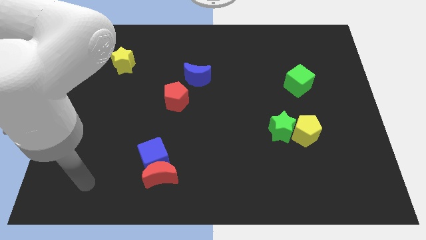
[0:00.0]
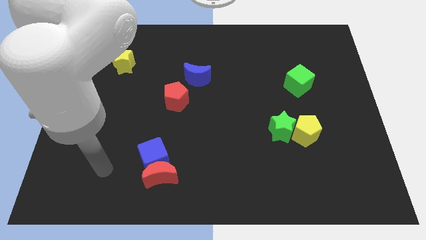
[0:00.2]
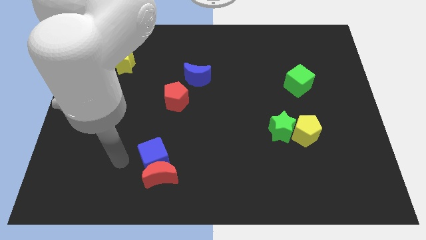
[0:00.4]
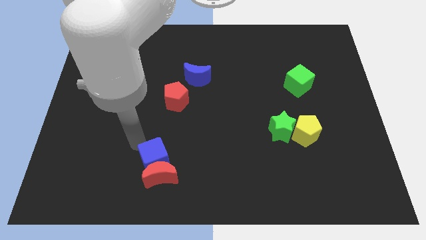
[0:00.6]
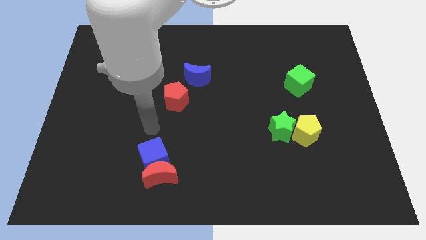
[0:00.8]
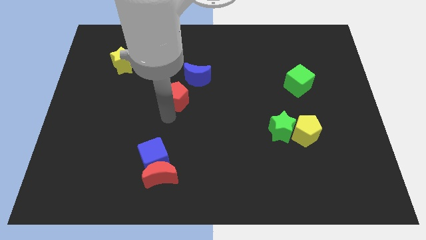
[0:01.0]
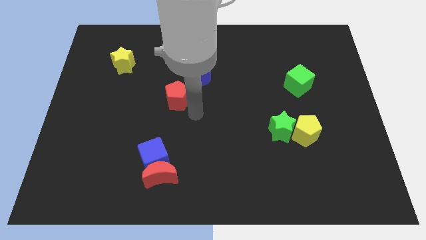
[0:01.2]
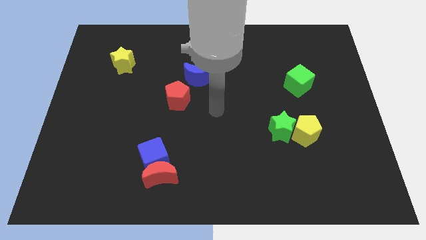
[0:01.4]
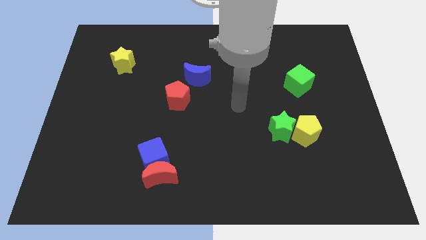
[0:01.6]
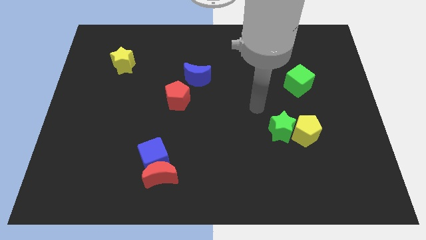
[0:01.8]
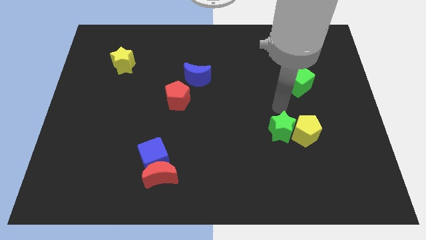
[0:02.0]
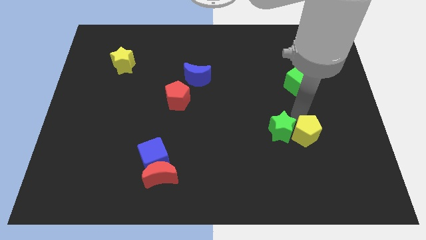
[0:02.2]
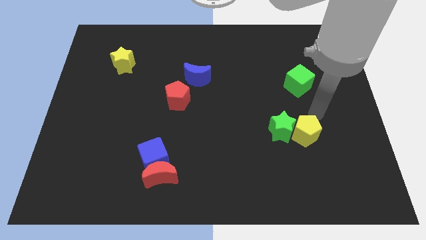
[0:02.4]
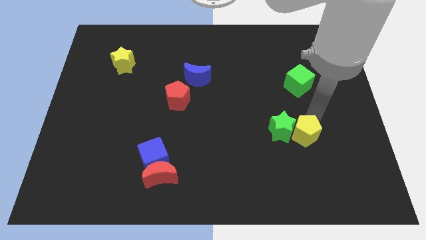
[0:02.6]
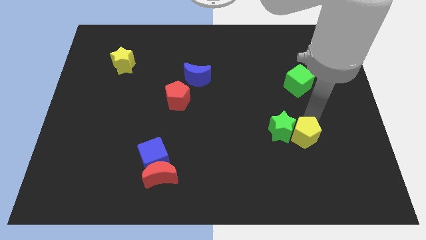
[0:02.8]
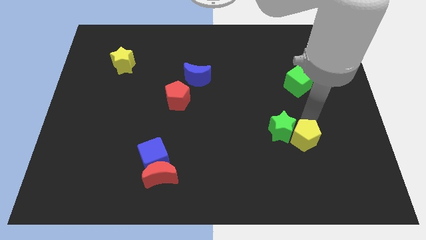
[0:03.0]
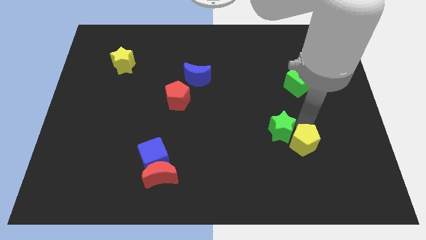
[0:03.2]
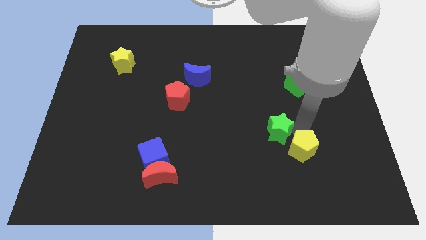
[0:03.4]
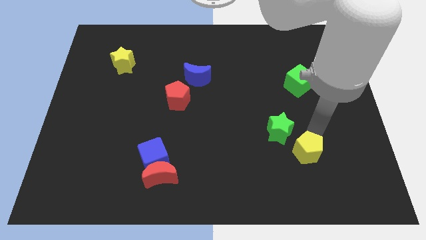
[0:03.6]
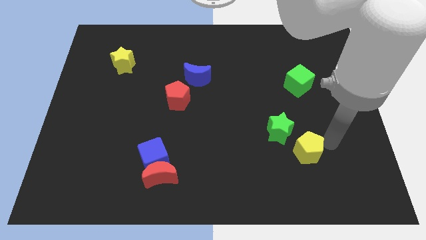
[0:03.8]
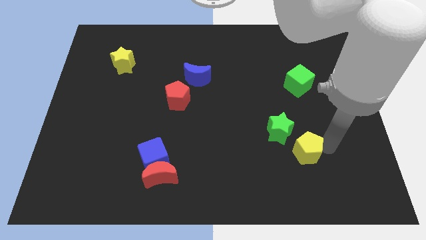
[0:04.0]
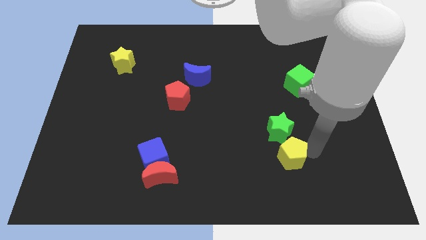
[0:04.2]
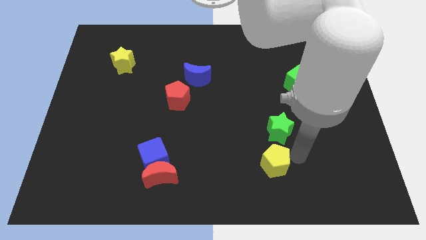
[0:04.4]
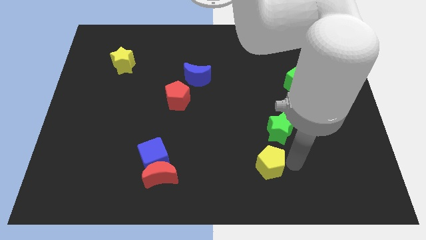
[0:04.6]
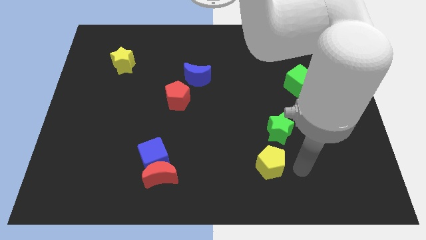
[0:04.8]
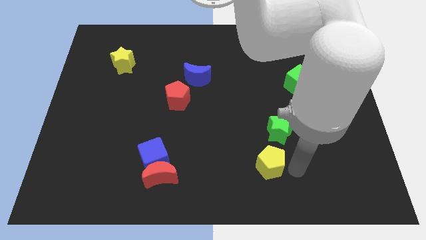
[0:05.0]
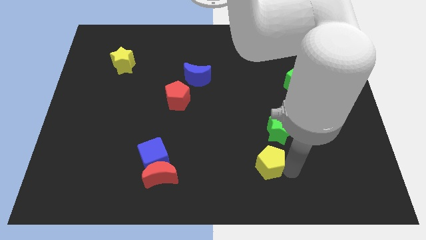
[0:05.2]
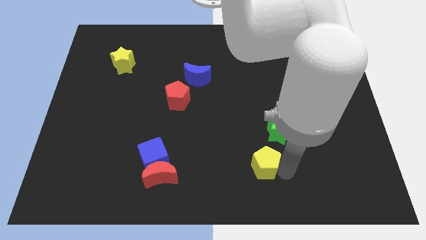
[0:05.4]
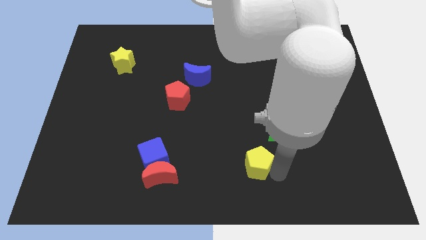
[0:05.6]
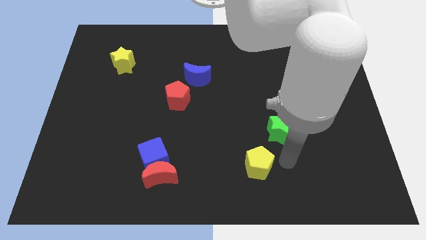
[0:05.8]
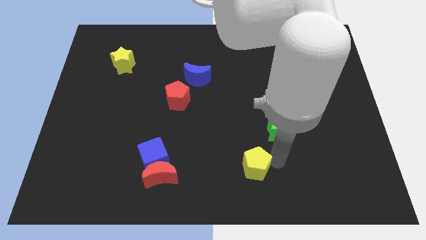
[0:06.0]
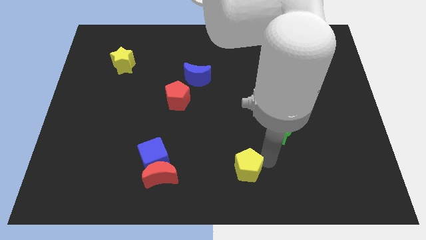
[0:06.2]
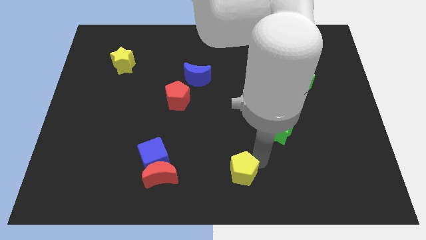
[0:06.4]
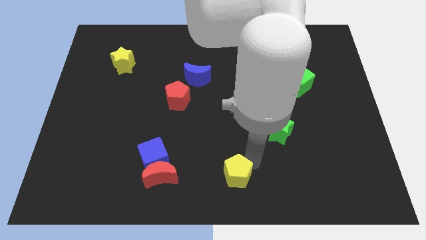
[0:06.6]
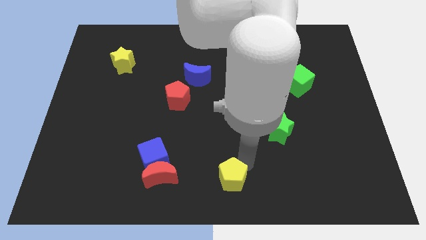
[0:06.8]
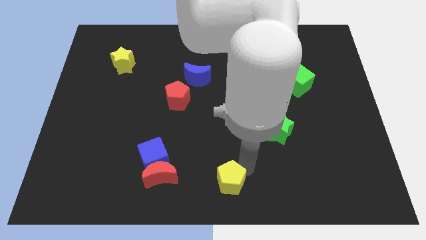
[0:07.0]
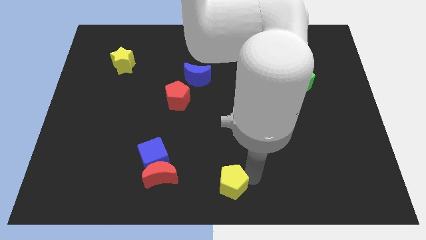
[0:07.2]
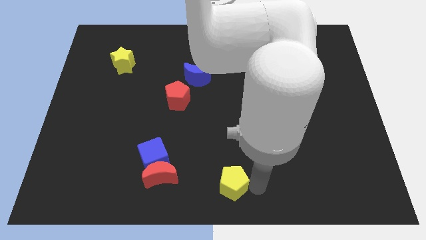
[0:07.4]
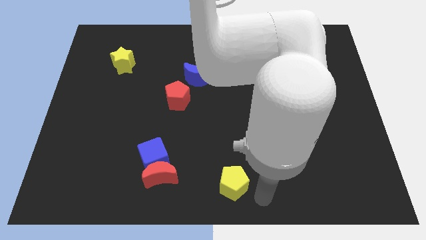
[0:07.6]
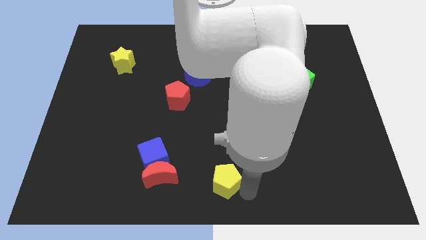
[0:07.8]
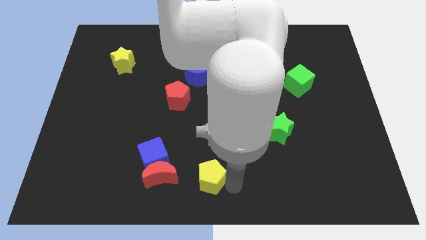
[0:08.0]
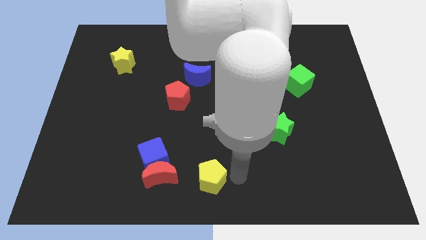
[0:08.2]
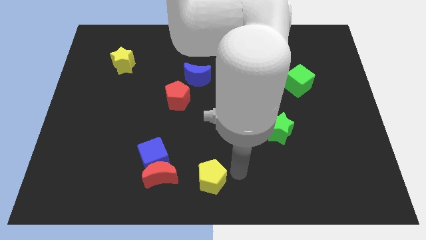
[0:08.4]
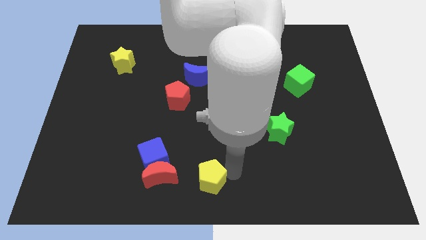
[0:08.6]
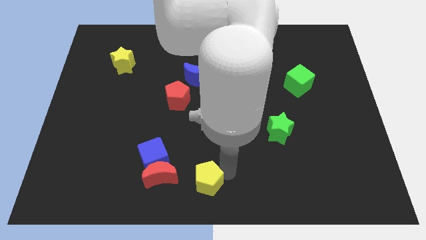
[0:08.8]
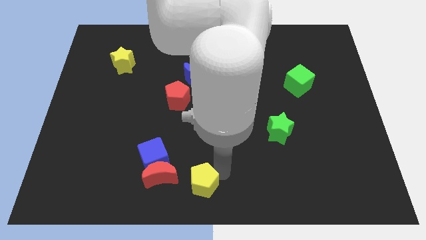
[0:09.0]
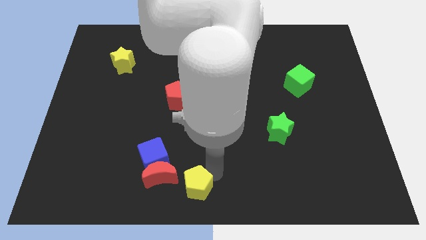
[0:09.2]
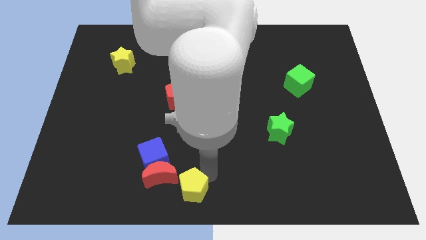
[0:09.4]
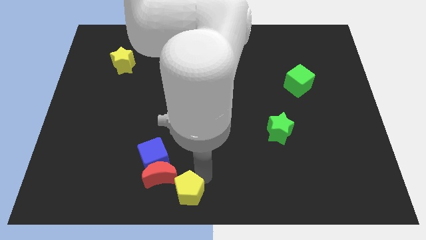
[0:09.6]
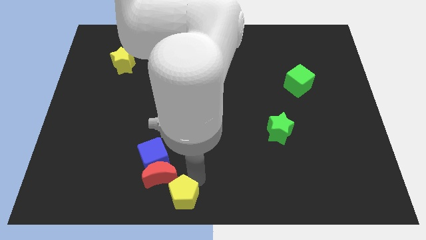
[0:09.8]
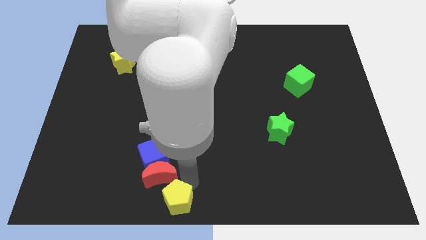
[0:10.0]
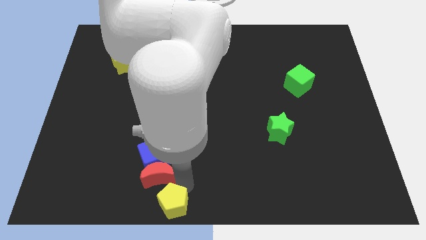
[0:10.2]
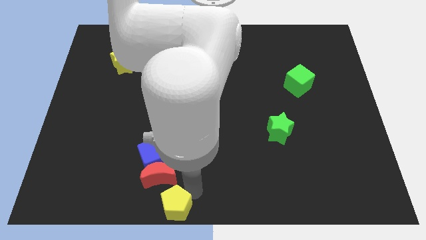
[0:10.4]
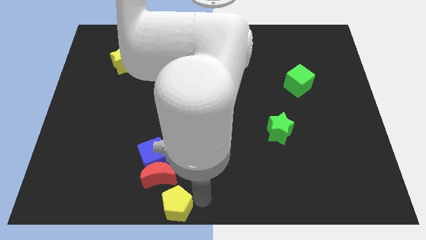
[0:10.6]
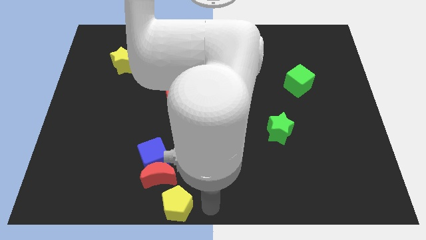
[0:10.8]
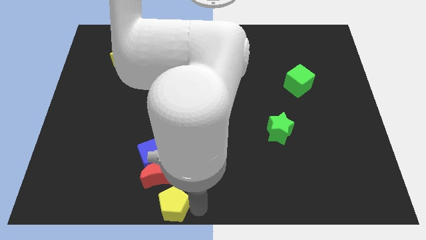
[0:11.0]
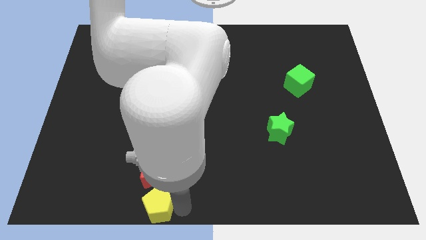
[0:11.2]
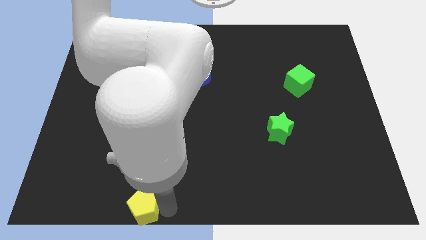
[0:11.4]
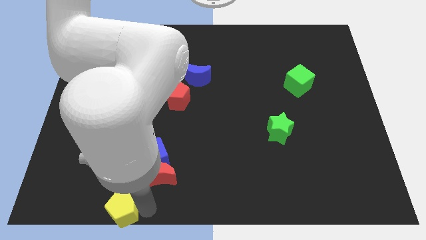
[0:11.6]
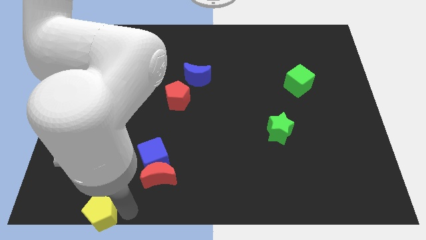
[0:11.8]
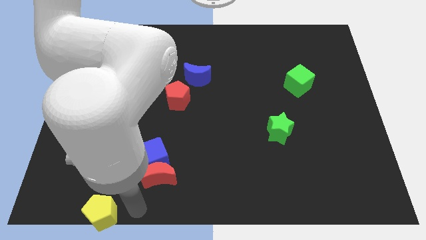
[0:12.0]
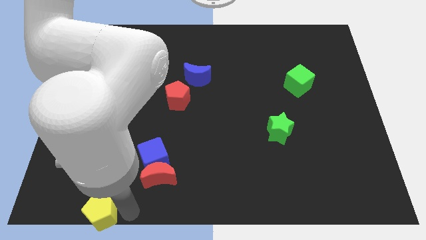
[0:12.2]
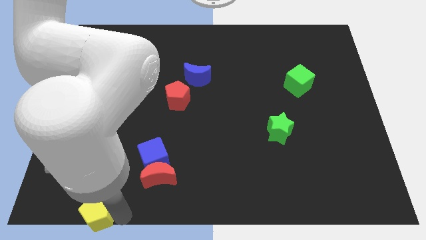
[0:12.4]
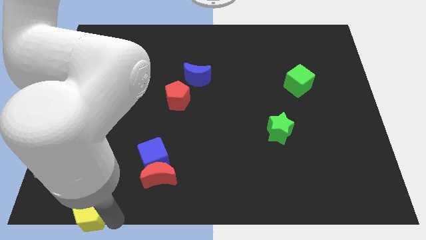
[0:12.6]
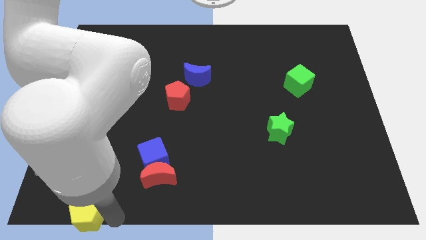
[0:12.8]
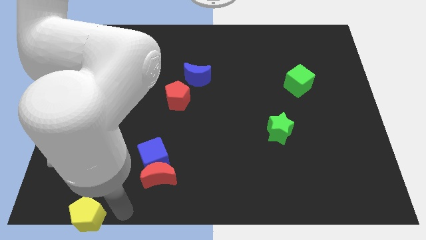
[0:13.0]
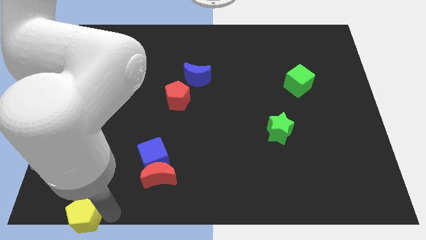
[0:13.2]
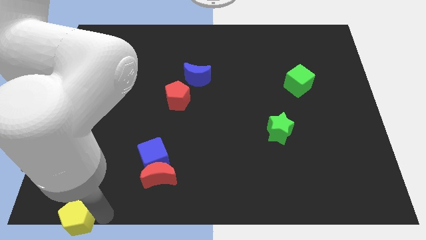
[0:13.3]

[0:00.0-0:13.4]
move the yellow pentagon to the bottom left of the board

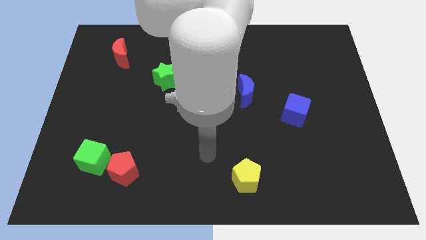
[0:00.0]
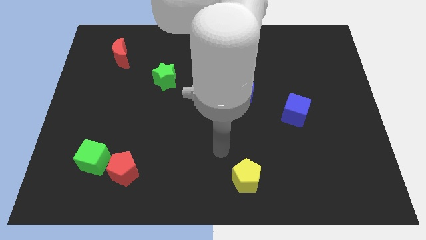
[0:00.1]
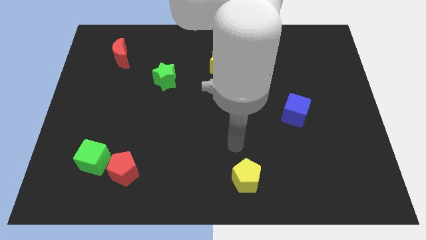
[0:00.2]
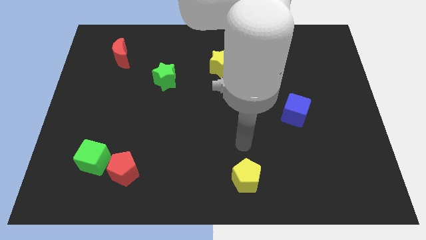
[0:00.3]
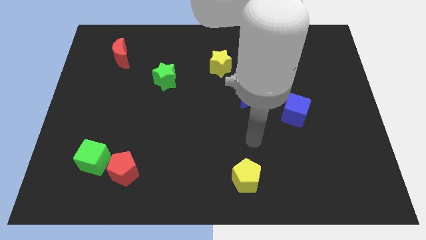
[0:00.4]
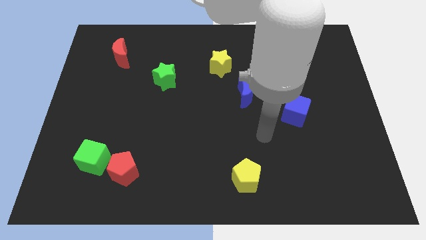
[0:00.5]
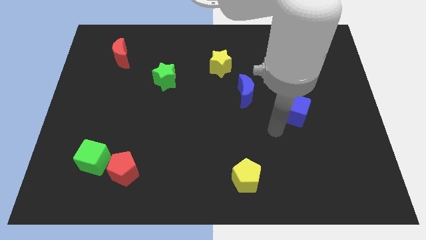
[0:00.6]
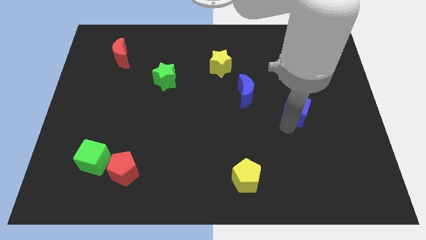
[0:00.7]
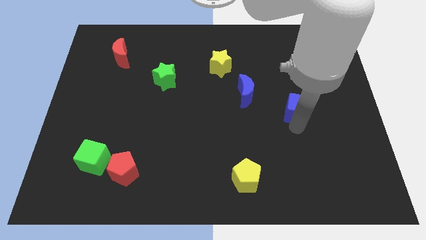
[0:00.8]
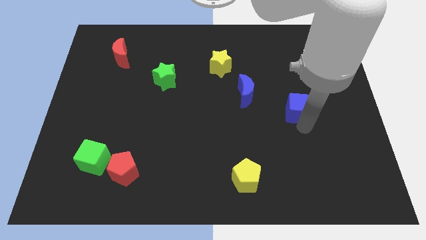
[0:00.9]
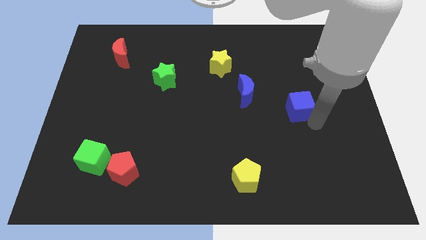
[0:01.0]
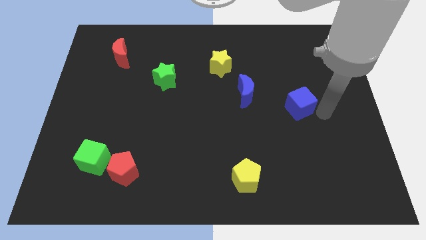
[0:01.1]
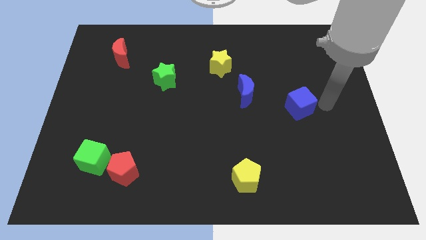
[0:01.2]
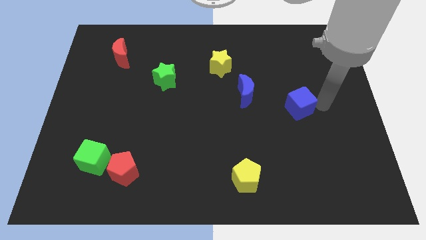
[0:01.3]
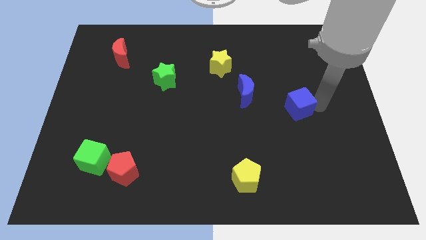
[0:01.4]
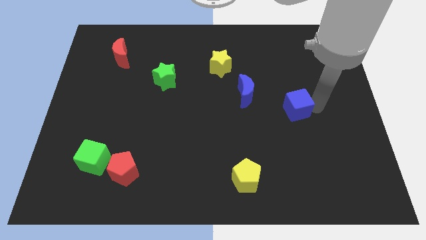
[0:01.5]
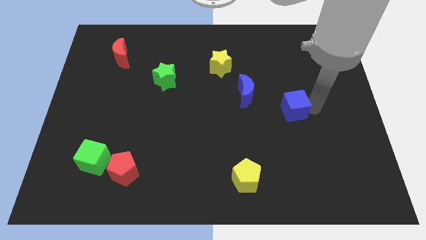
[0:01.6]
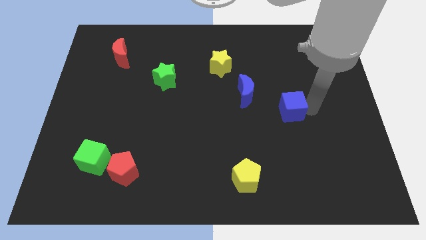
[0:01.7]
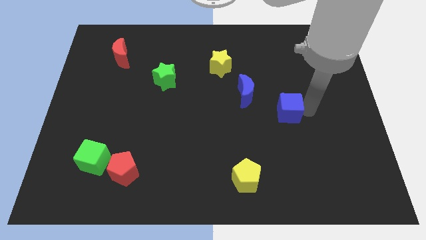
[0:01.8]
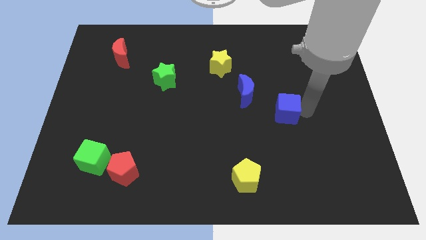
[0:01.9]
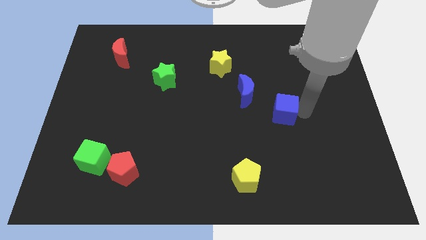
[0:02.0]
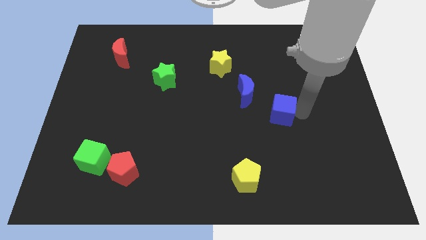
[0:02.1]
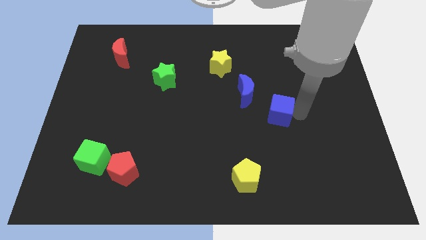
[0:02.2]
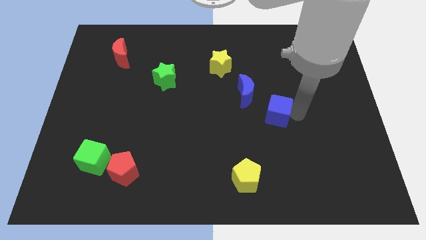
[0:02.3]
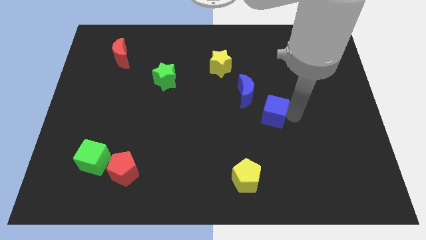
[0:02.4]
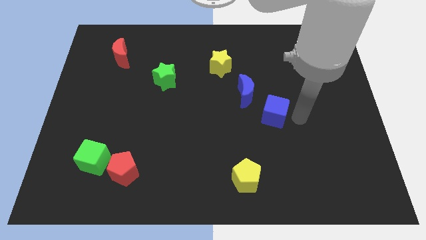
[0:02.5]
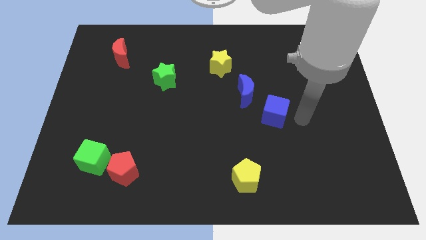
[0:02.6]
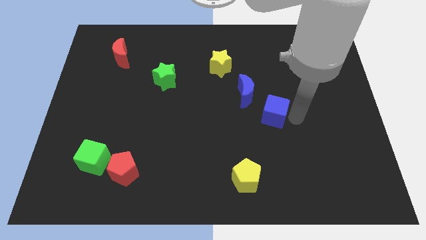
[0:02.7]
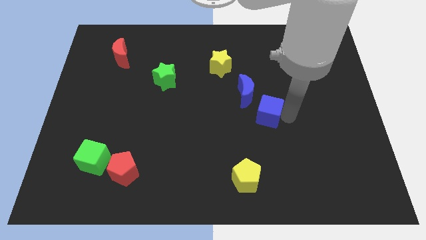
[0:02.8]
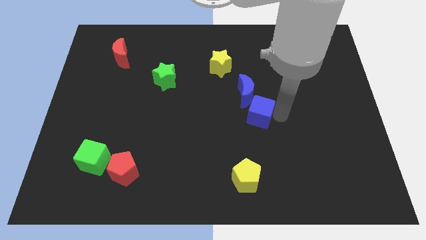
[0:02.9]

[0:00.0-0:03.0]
put the blue cube to the middle
